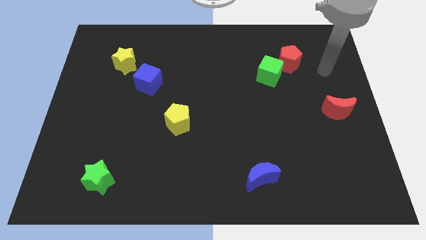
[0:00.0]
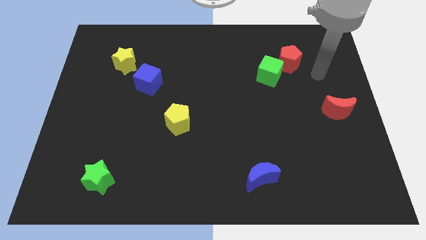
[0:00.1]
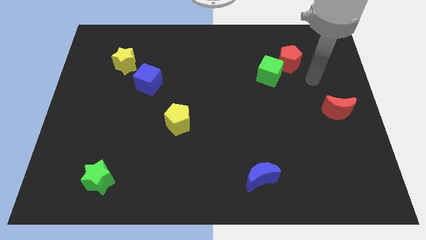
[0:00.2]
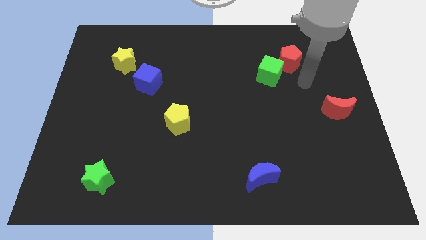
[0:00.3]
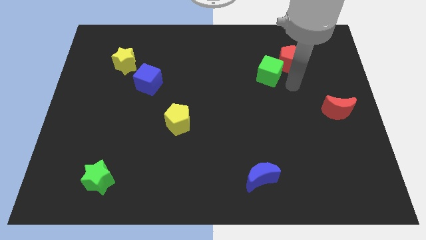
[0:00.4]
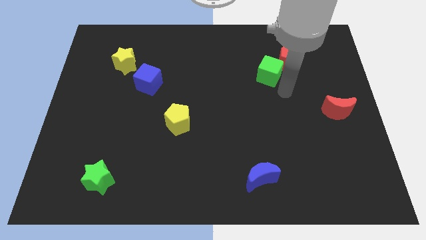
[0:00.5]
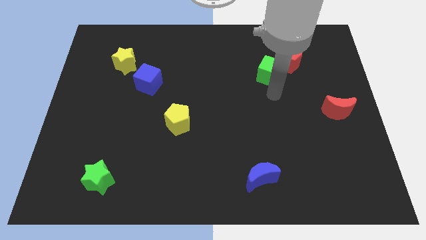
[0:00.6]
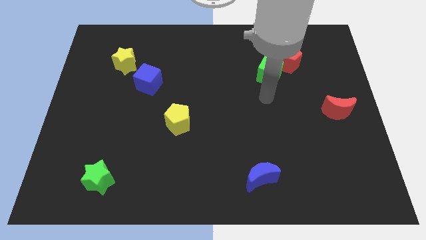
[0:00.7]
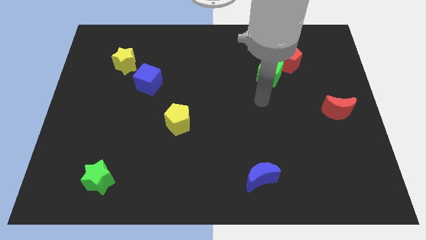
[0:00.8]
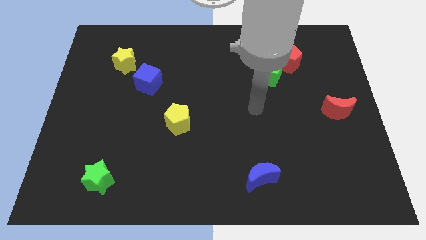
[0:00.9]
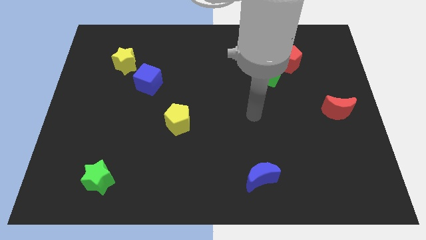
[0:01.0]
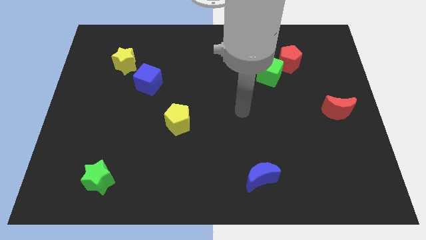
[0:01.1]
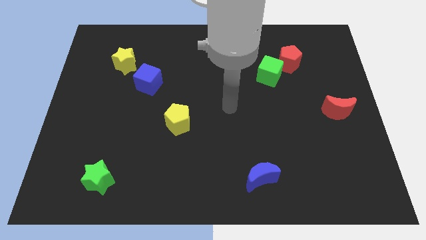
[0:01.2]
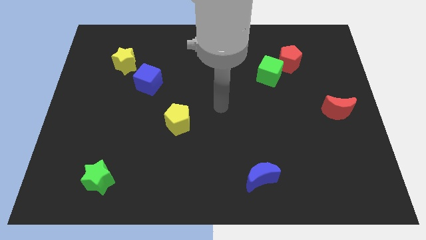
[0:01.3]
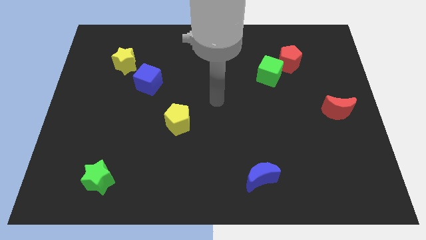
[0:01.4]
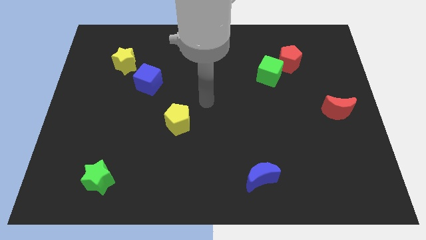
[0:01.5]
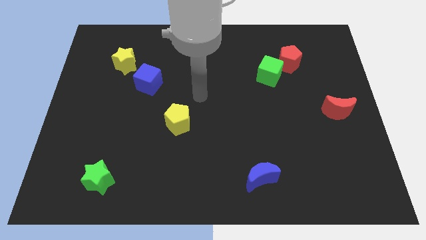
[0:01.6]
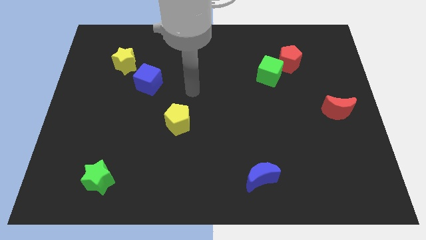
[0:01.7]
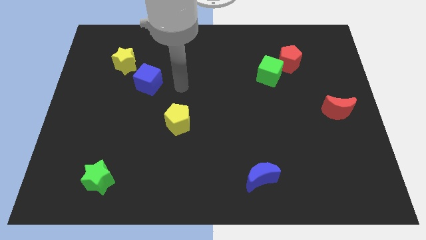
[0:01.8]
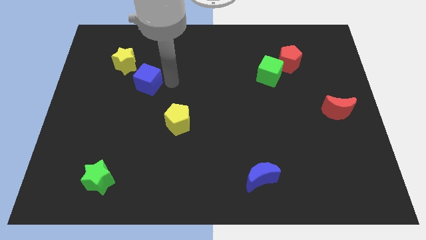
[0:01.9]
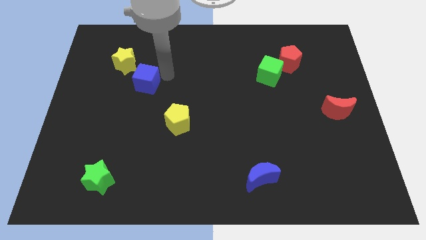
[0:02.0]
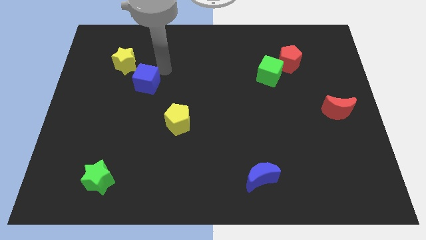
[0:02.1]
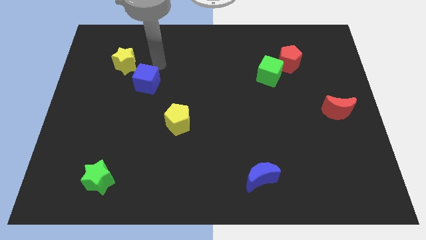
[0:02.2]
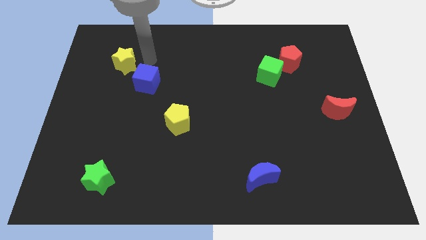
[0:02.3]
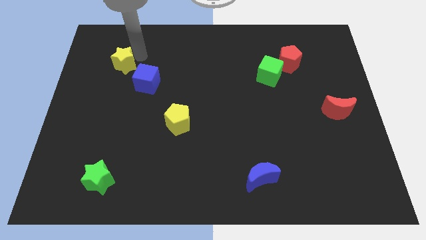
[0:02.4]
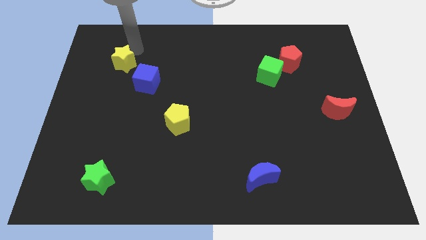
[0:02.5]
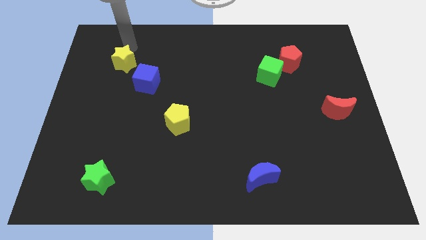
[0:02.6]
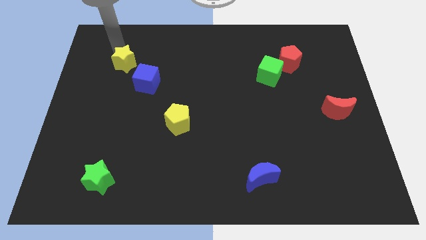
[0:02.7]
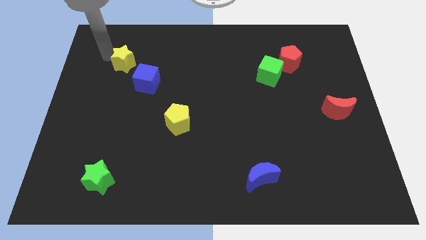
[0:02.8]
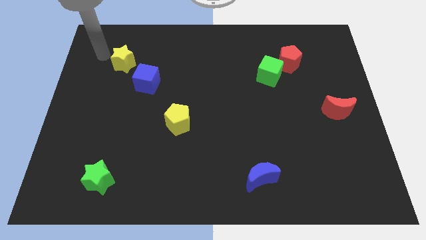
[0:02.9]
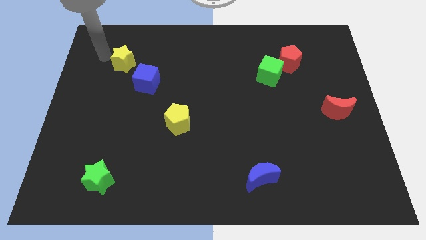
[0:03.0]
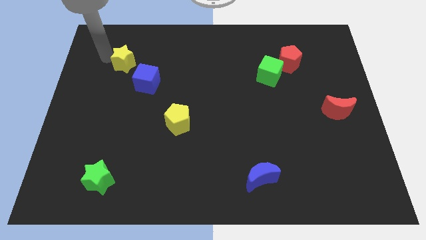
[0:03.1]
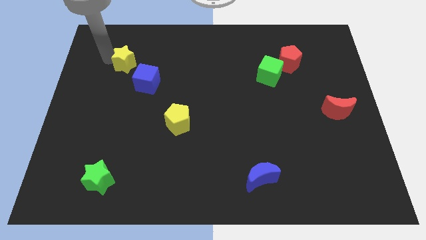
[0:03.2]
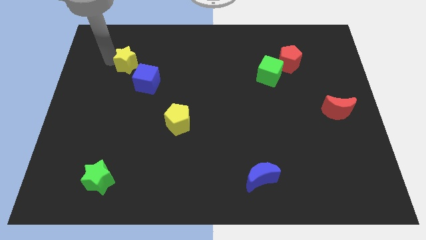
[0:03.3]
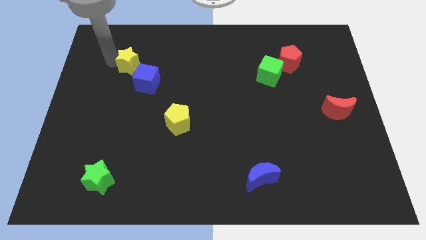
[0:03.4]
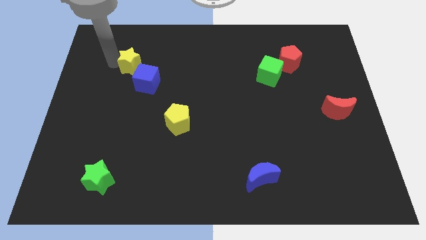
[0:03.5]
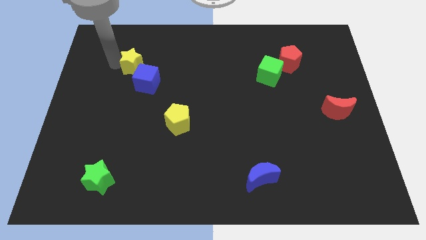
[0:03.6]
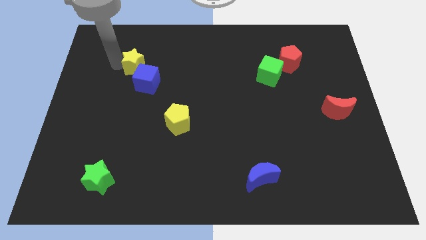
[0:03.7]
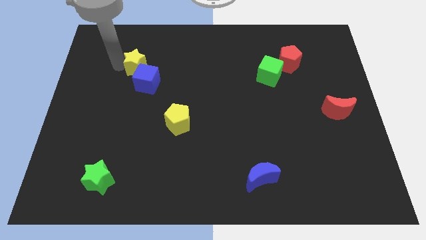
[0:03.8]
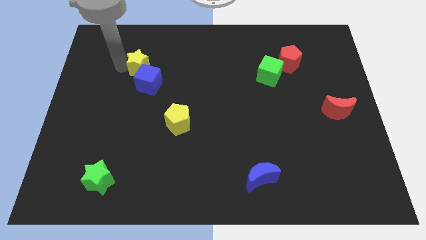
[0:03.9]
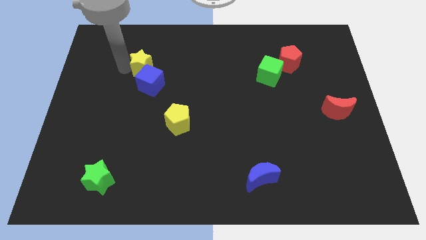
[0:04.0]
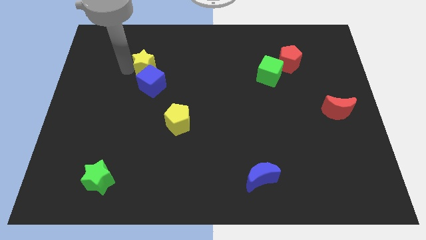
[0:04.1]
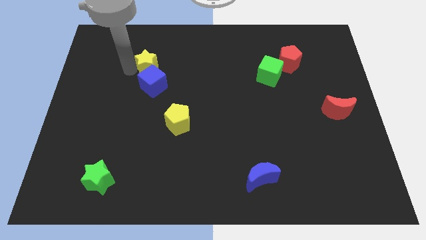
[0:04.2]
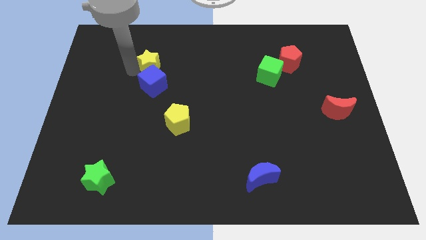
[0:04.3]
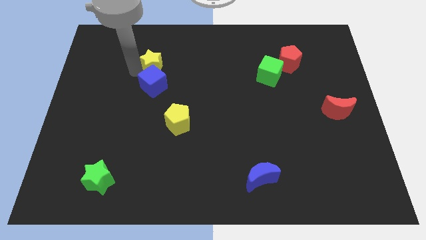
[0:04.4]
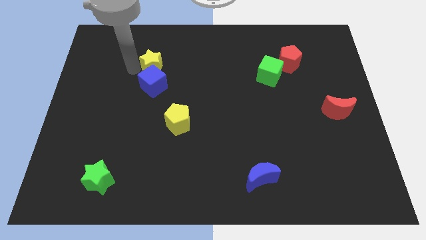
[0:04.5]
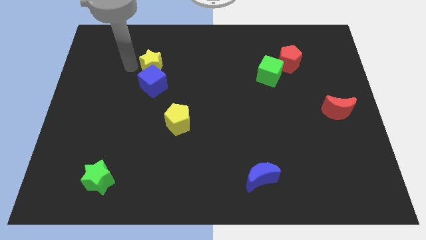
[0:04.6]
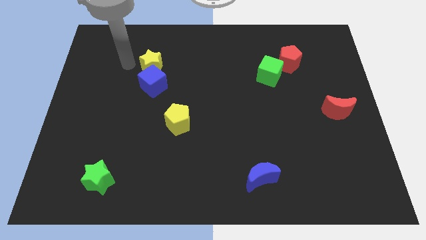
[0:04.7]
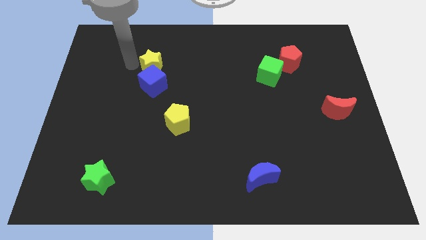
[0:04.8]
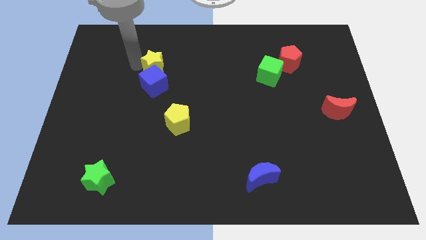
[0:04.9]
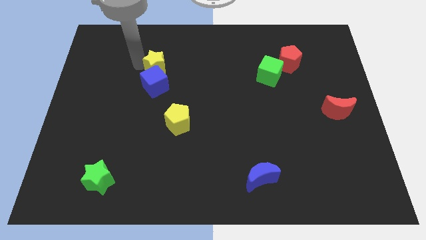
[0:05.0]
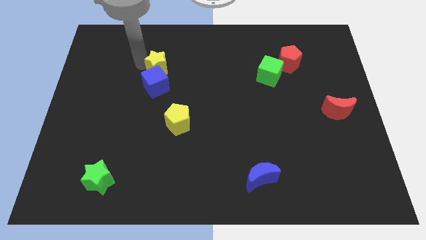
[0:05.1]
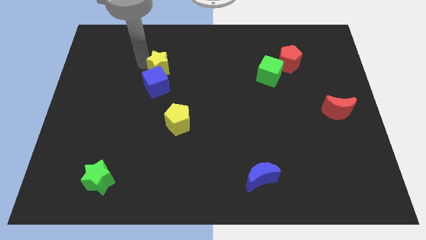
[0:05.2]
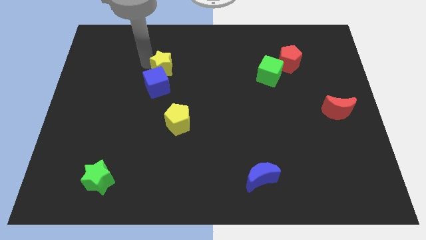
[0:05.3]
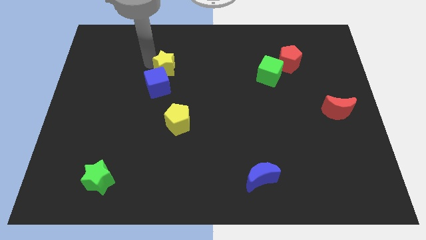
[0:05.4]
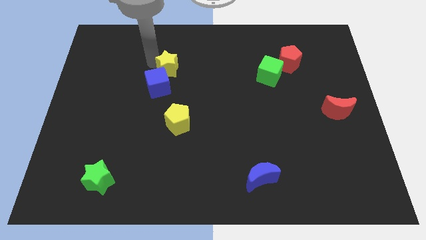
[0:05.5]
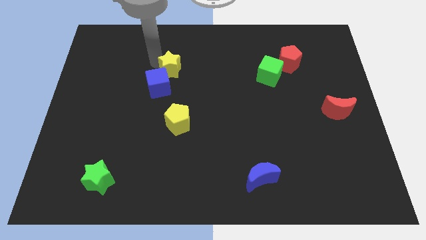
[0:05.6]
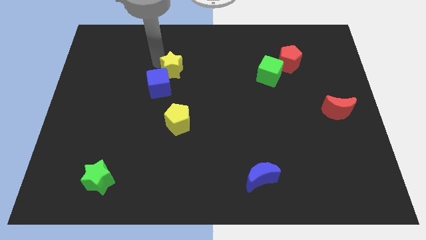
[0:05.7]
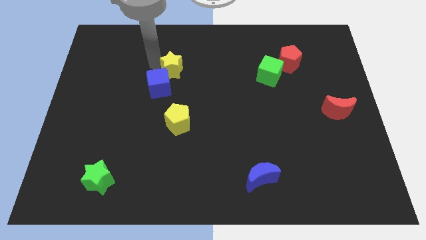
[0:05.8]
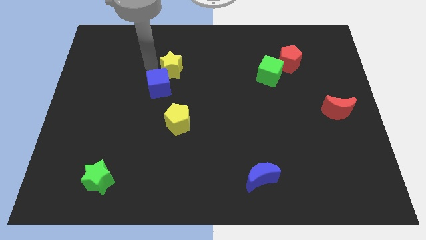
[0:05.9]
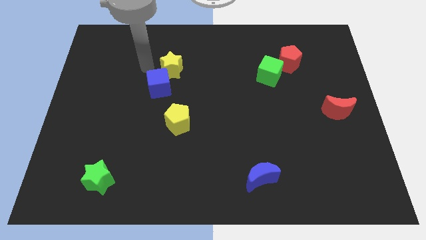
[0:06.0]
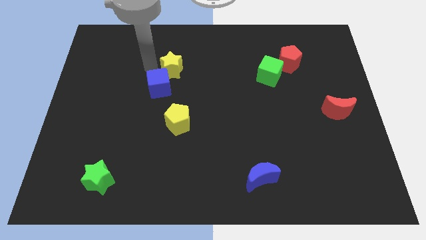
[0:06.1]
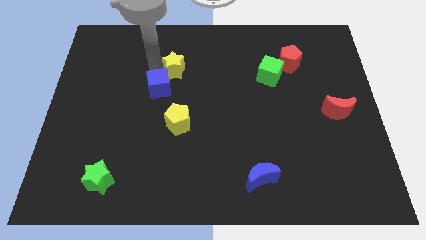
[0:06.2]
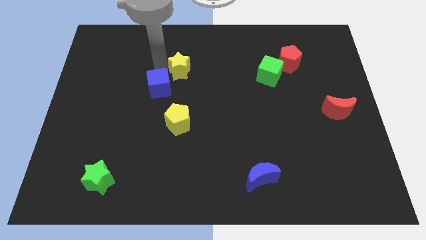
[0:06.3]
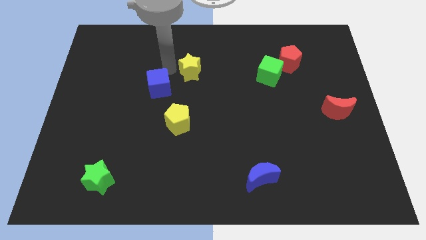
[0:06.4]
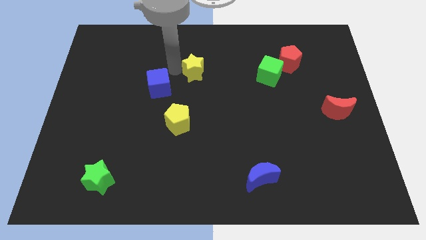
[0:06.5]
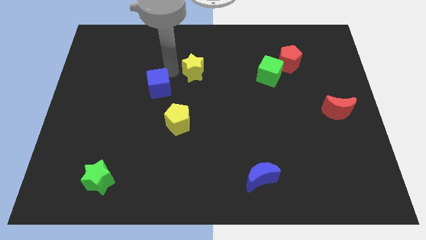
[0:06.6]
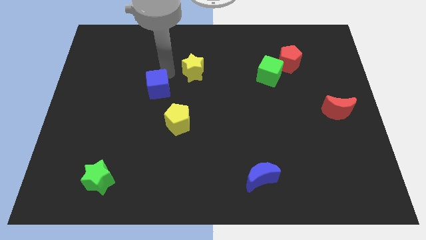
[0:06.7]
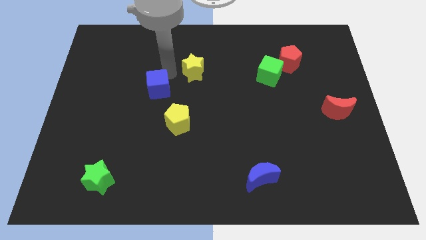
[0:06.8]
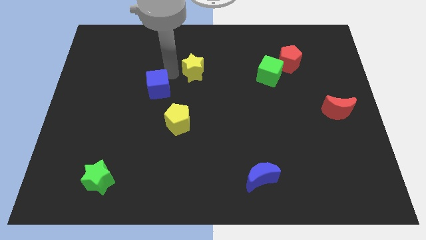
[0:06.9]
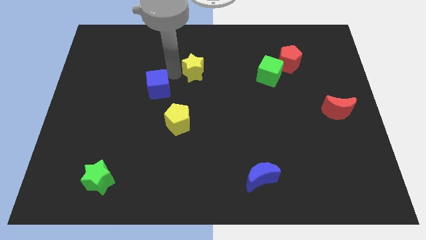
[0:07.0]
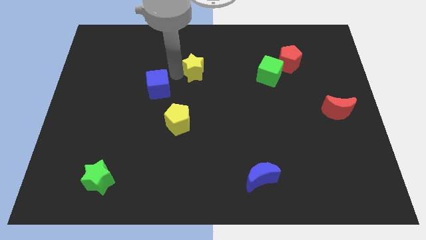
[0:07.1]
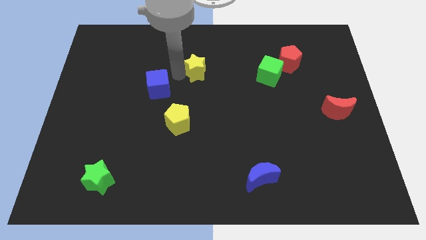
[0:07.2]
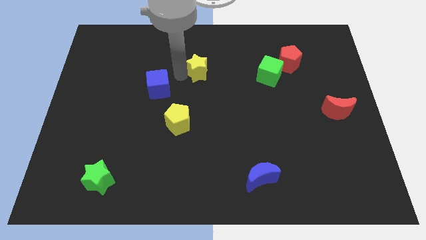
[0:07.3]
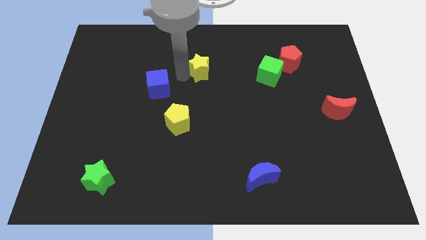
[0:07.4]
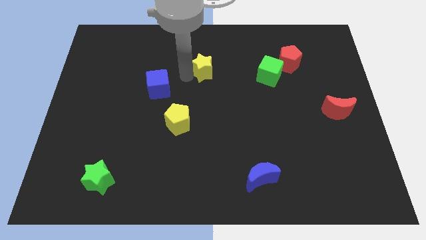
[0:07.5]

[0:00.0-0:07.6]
push the yellow star right

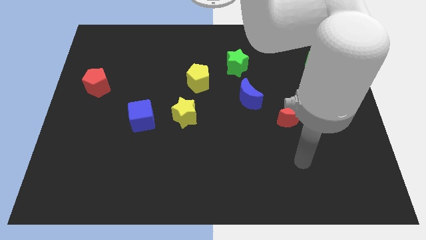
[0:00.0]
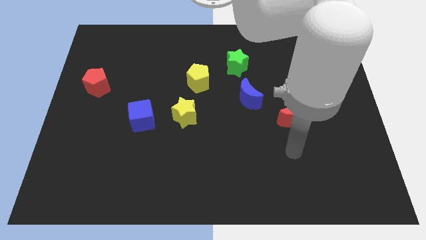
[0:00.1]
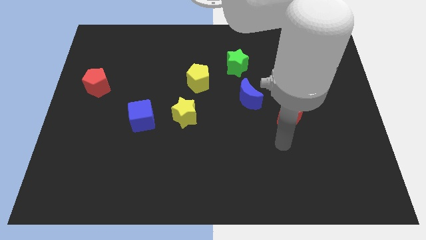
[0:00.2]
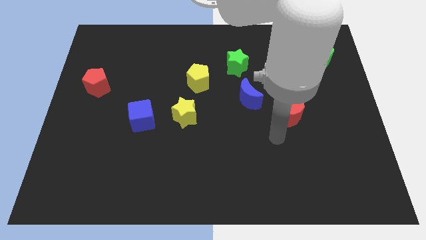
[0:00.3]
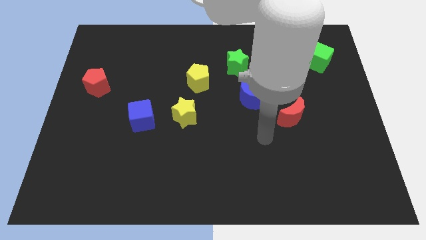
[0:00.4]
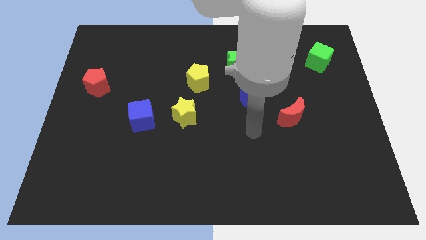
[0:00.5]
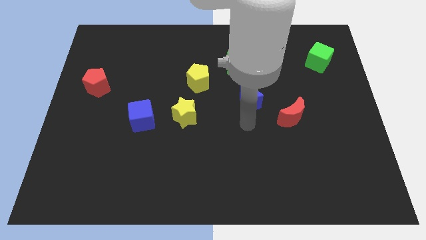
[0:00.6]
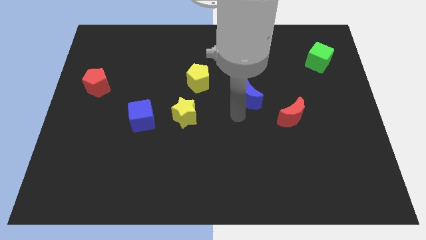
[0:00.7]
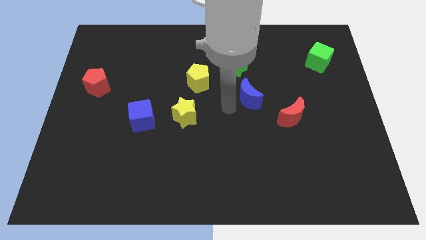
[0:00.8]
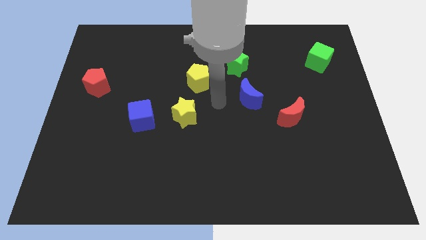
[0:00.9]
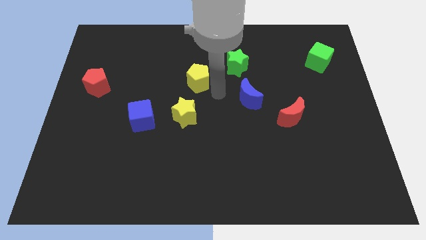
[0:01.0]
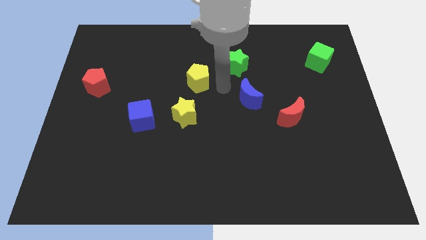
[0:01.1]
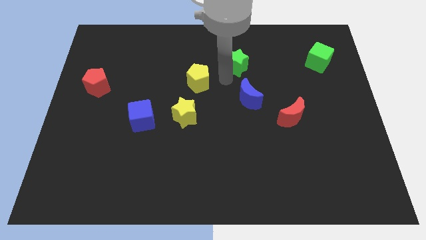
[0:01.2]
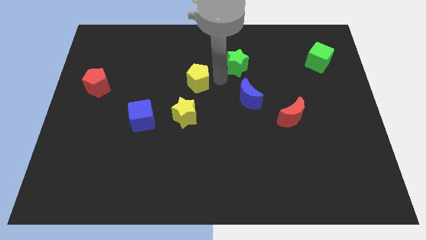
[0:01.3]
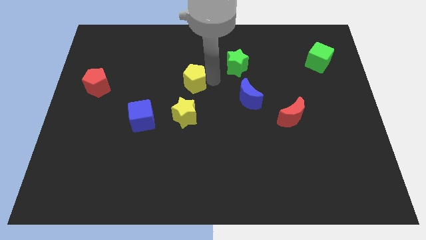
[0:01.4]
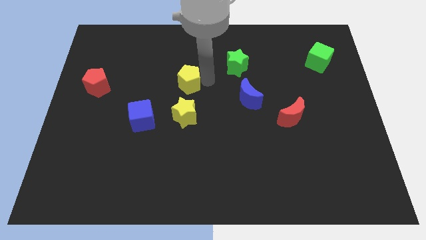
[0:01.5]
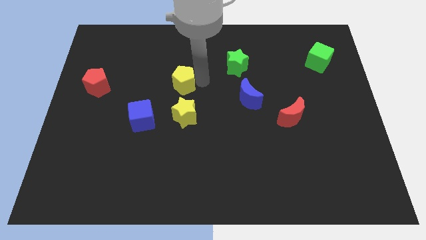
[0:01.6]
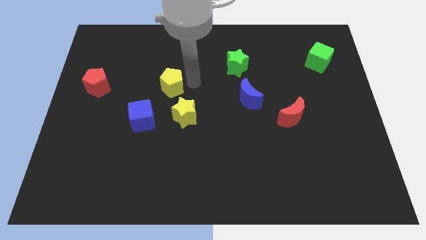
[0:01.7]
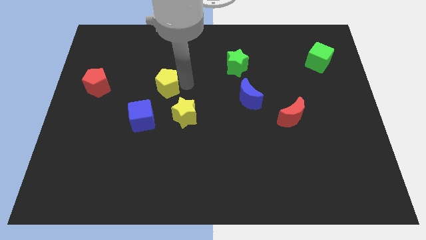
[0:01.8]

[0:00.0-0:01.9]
push the yellow pentagon a little to the left
